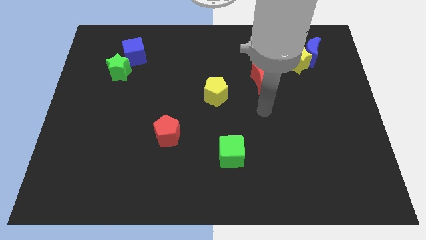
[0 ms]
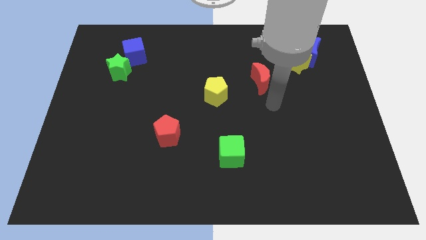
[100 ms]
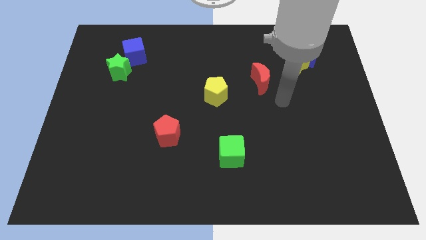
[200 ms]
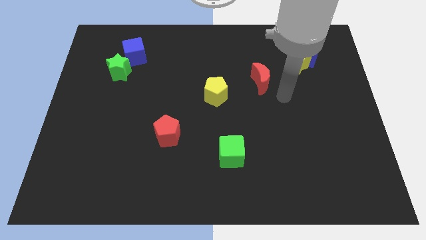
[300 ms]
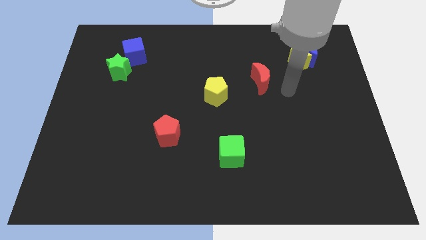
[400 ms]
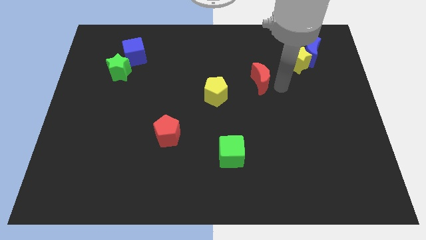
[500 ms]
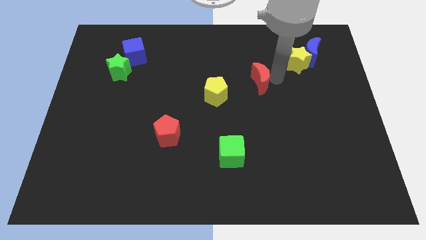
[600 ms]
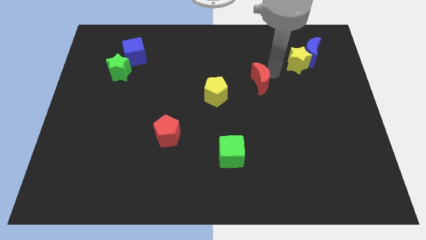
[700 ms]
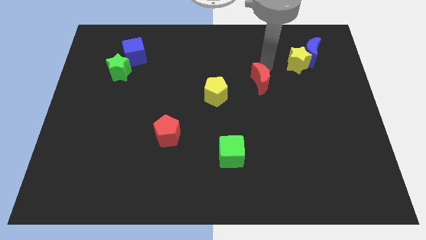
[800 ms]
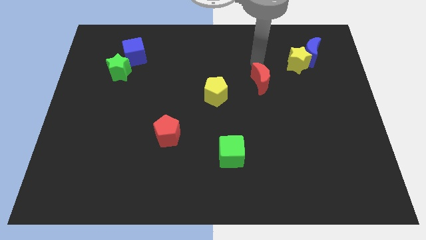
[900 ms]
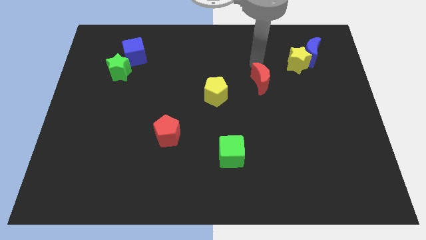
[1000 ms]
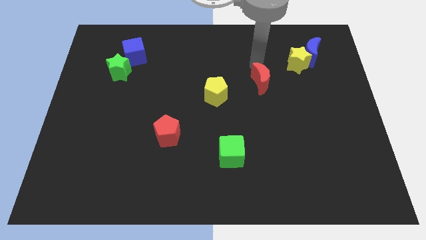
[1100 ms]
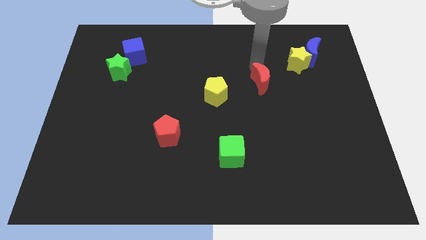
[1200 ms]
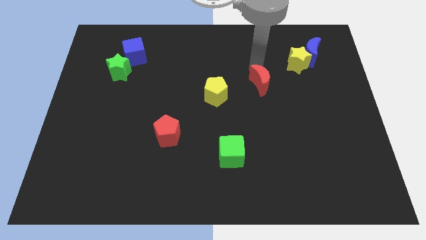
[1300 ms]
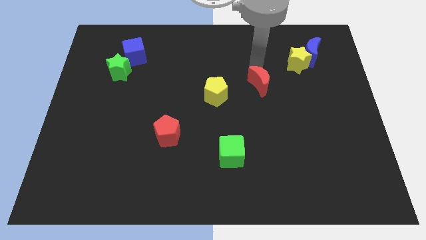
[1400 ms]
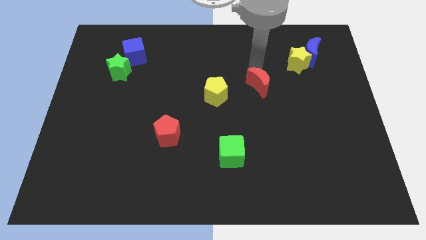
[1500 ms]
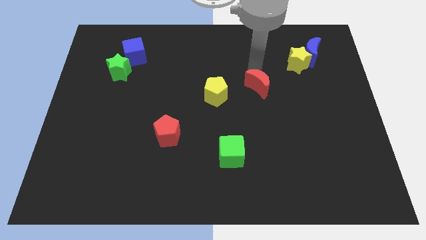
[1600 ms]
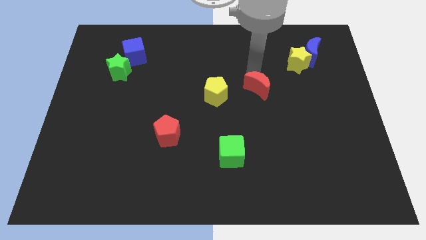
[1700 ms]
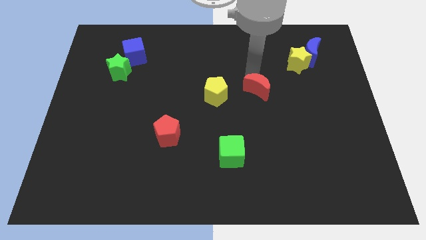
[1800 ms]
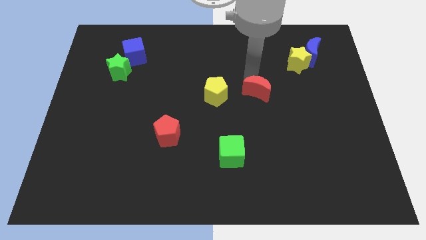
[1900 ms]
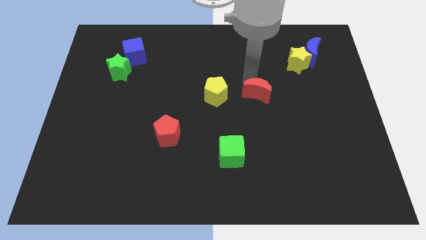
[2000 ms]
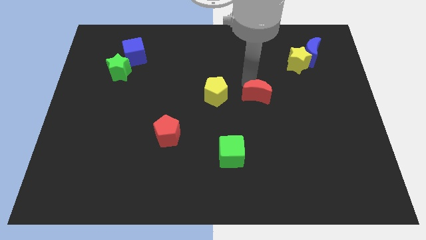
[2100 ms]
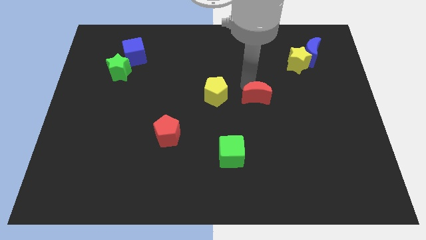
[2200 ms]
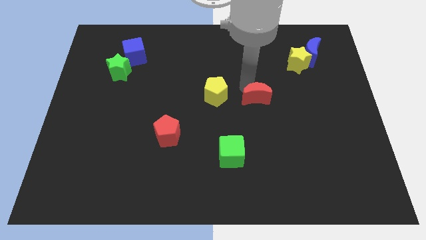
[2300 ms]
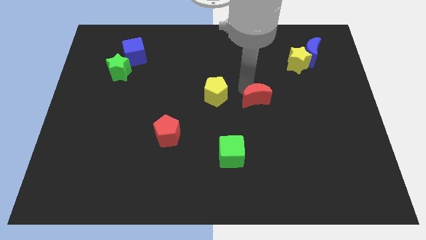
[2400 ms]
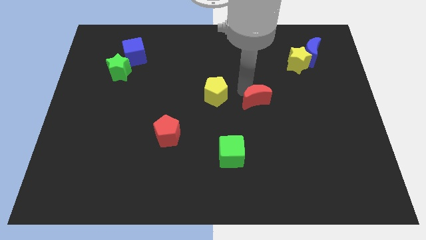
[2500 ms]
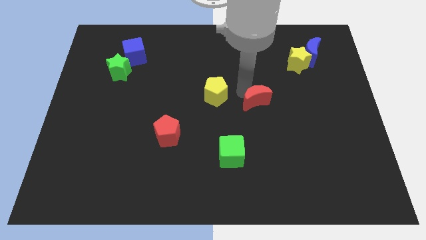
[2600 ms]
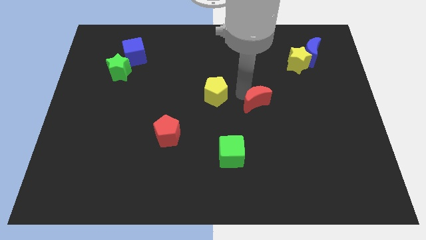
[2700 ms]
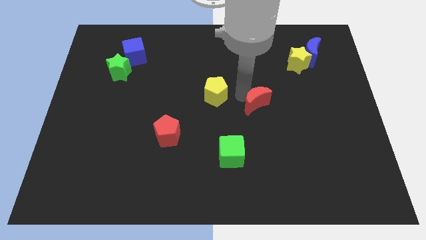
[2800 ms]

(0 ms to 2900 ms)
slightly move the red moon downwards

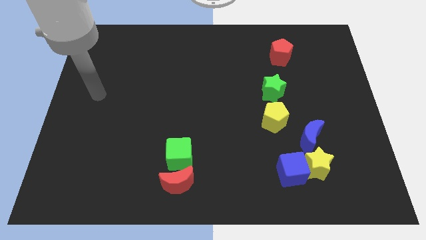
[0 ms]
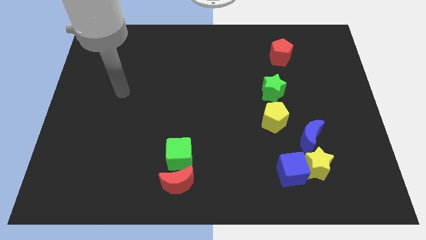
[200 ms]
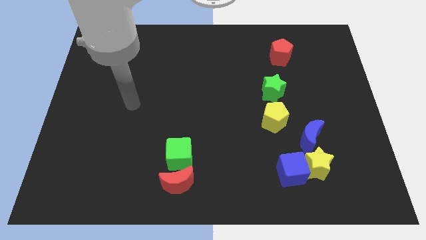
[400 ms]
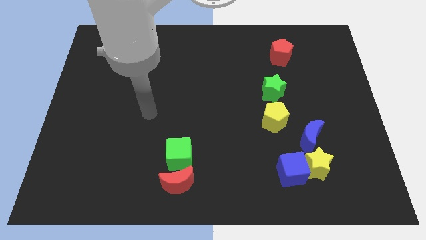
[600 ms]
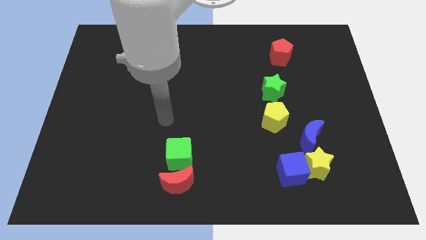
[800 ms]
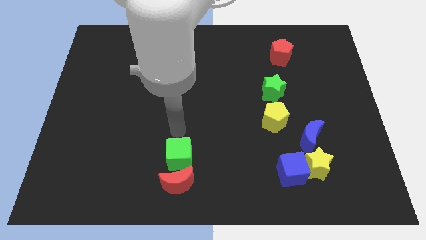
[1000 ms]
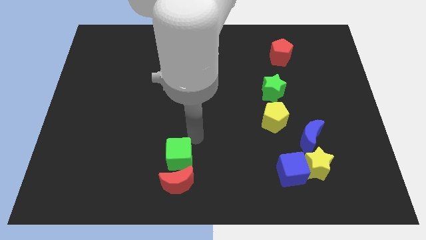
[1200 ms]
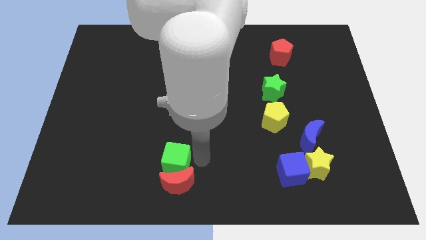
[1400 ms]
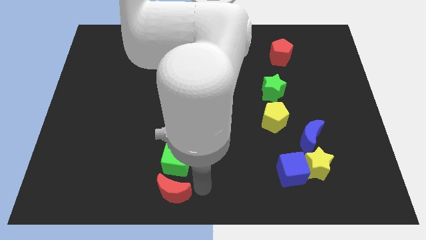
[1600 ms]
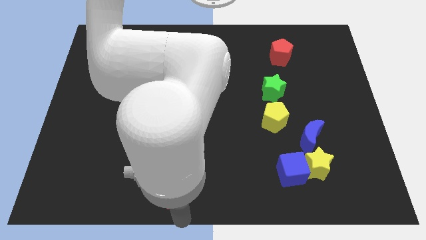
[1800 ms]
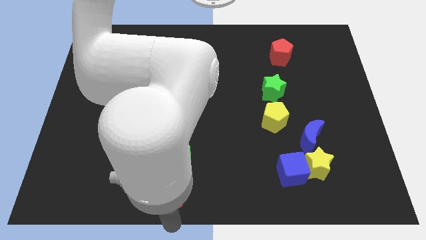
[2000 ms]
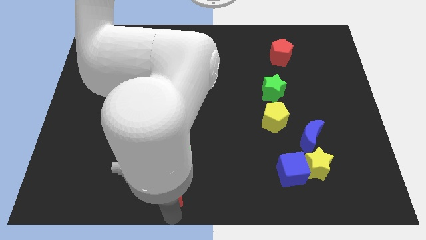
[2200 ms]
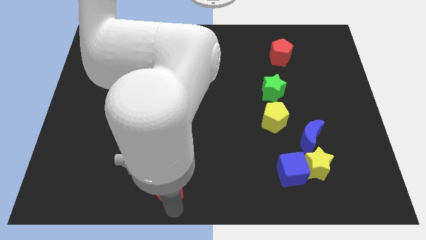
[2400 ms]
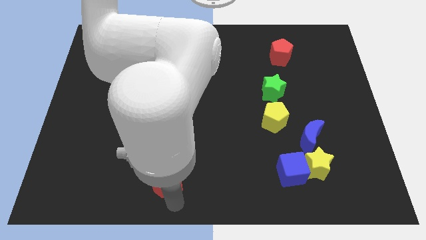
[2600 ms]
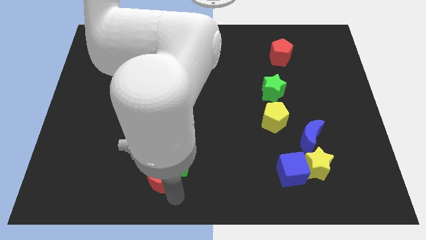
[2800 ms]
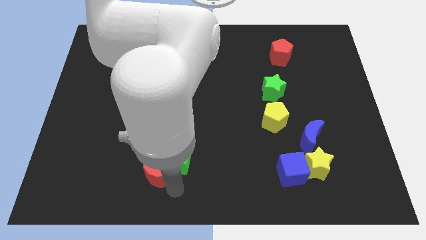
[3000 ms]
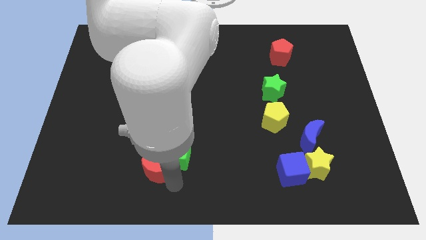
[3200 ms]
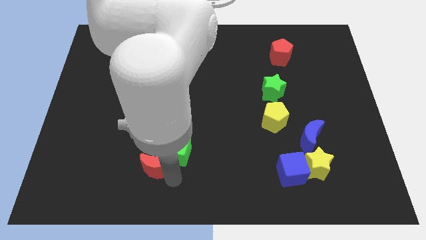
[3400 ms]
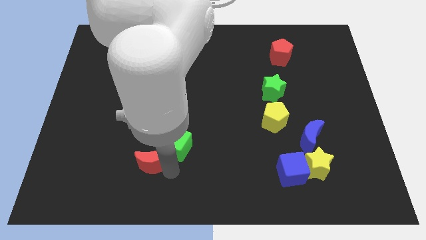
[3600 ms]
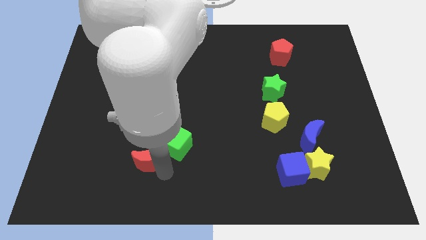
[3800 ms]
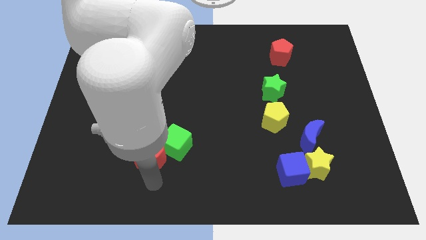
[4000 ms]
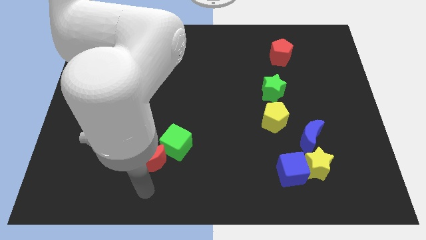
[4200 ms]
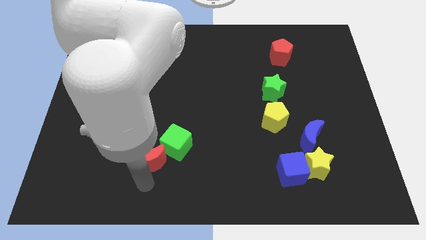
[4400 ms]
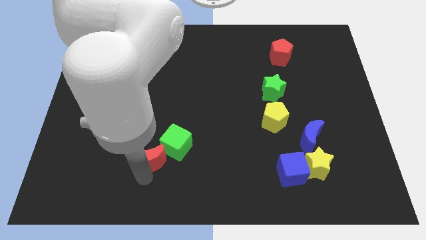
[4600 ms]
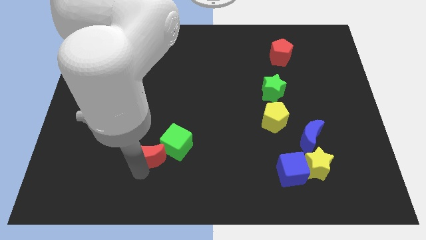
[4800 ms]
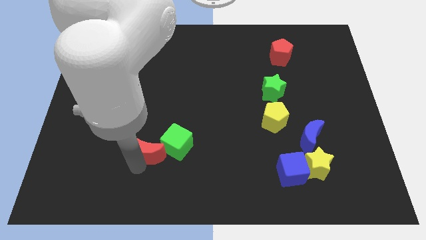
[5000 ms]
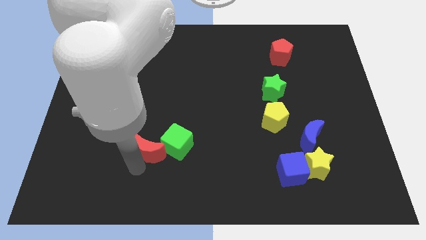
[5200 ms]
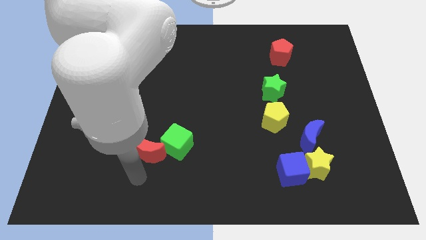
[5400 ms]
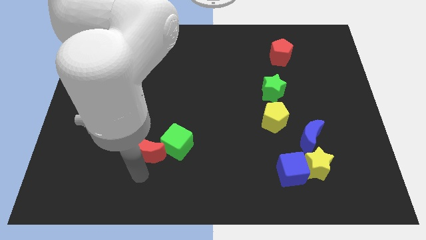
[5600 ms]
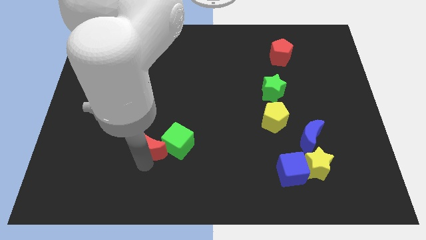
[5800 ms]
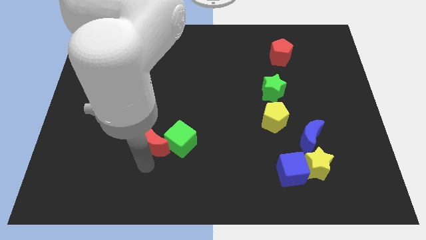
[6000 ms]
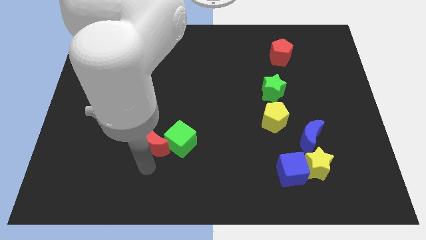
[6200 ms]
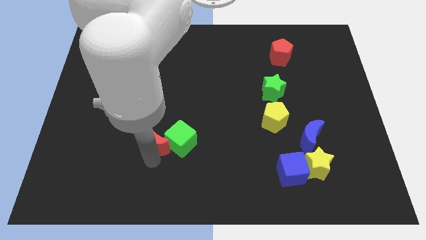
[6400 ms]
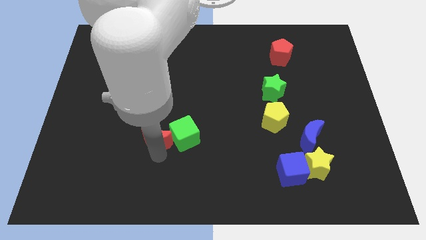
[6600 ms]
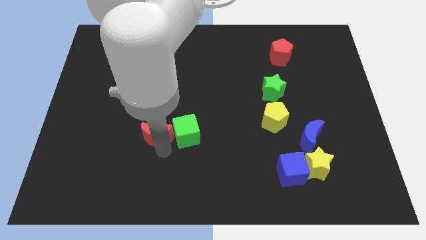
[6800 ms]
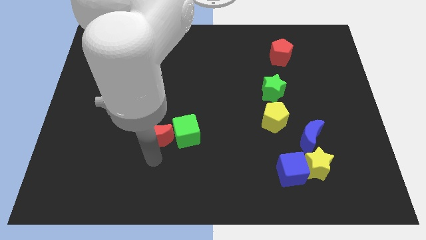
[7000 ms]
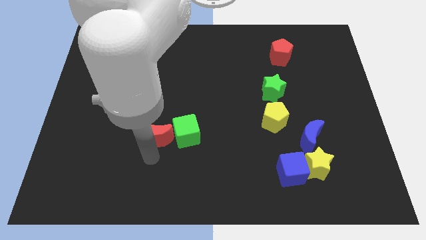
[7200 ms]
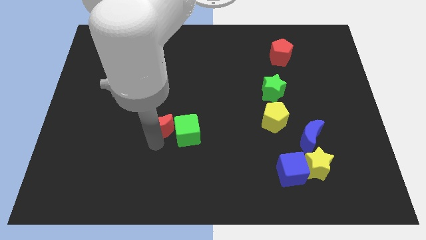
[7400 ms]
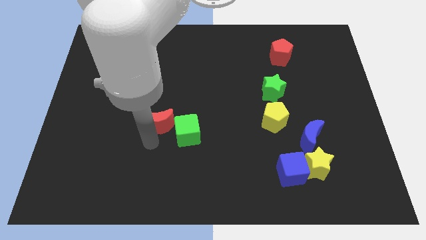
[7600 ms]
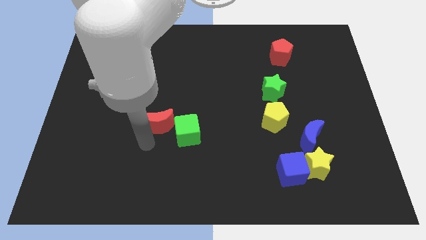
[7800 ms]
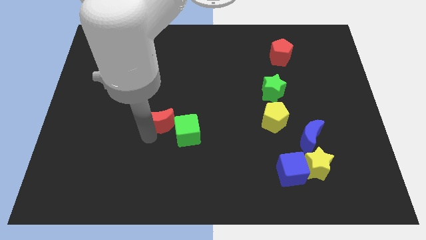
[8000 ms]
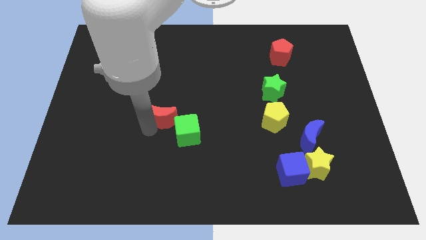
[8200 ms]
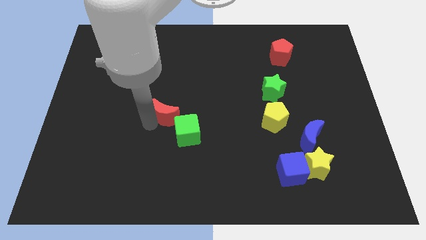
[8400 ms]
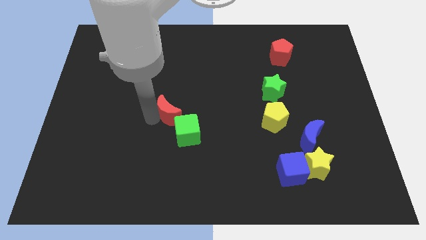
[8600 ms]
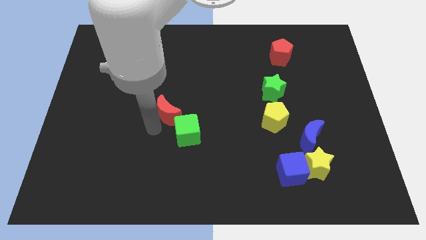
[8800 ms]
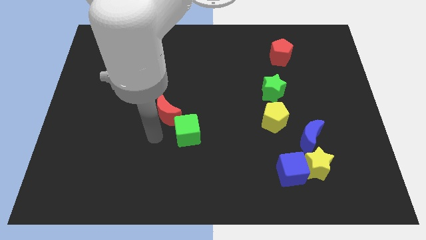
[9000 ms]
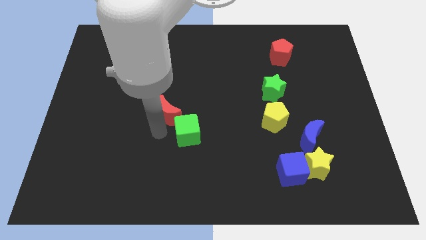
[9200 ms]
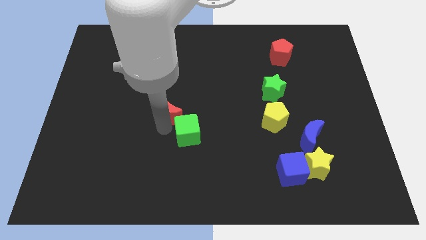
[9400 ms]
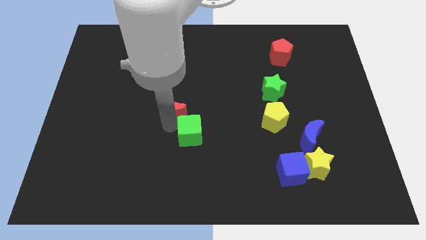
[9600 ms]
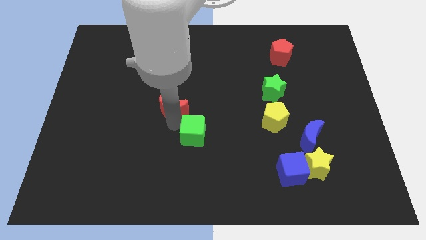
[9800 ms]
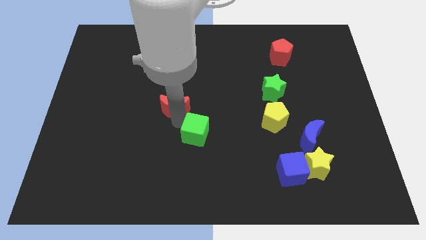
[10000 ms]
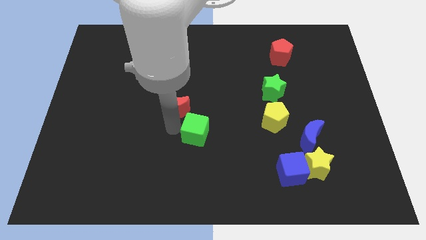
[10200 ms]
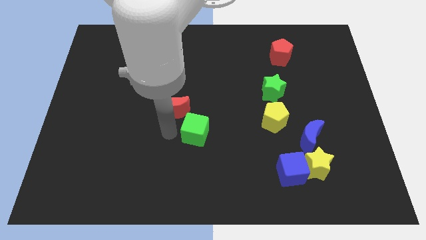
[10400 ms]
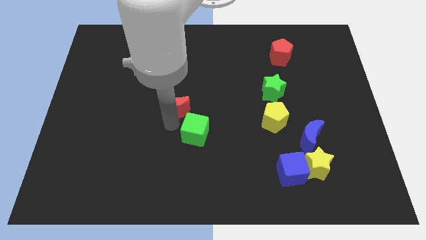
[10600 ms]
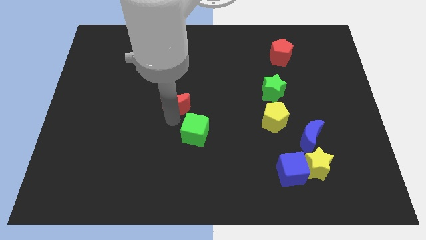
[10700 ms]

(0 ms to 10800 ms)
move the red moon up
